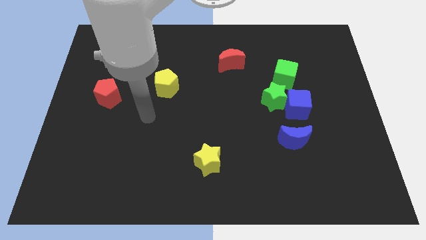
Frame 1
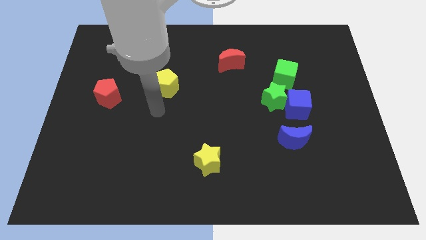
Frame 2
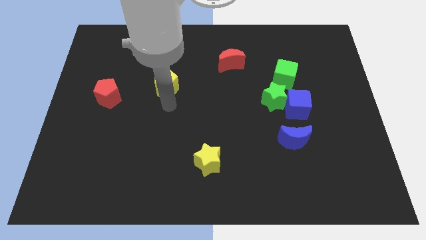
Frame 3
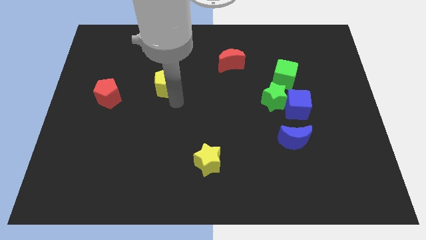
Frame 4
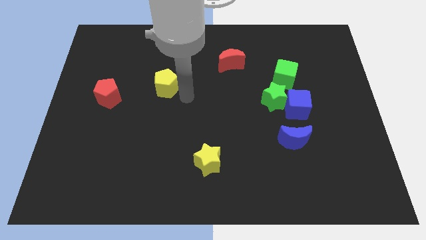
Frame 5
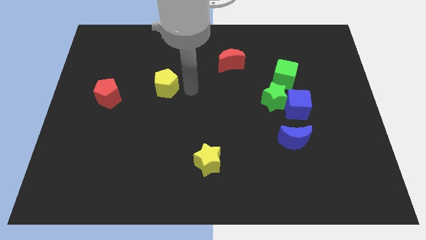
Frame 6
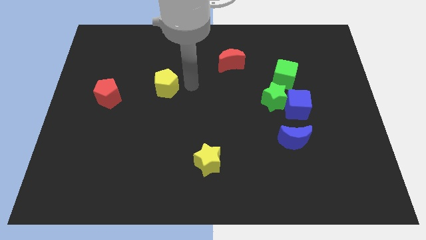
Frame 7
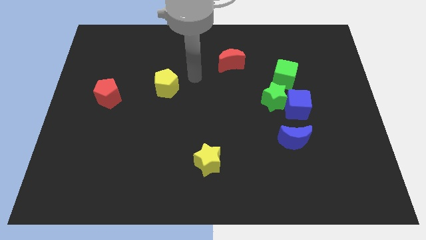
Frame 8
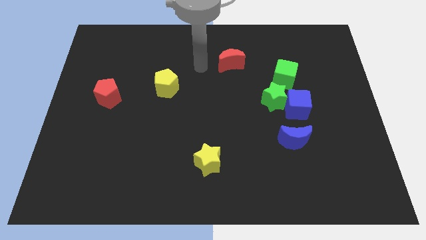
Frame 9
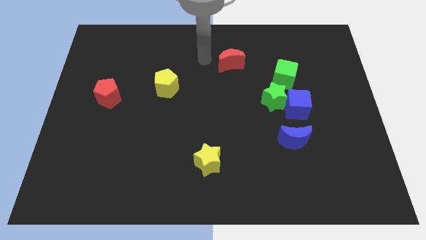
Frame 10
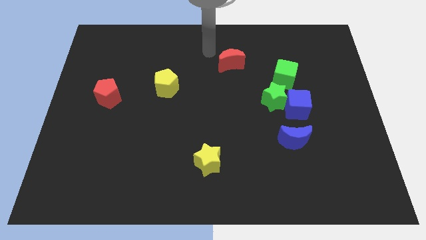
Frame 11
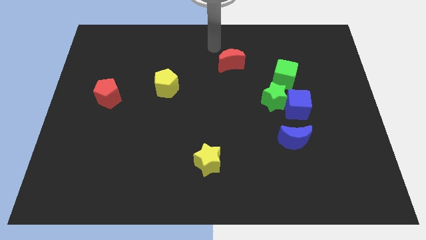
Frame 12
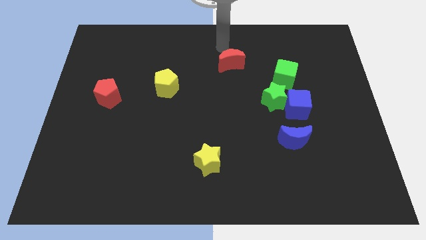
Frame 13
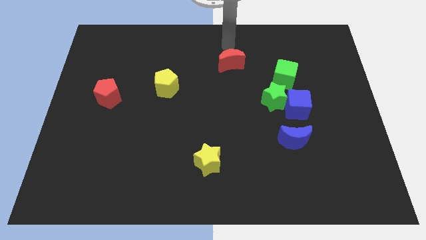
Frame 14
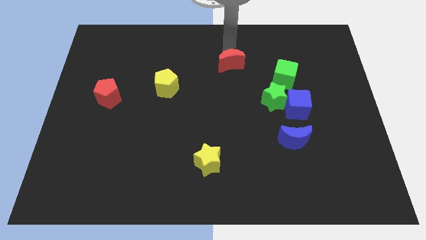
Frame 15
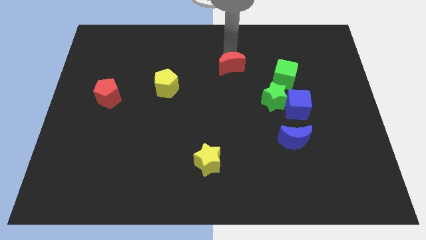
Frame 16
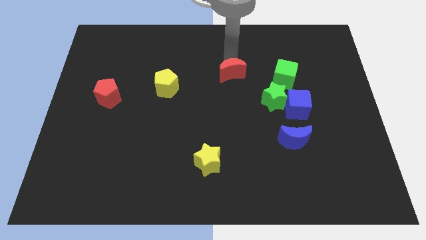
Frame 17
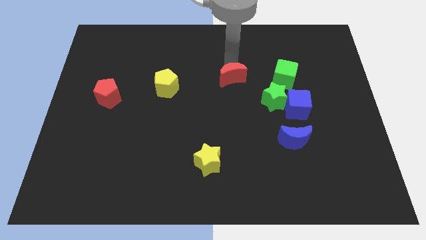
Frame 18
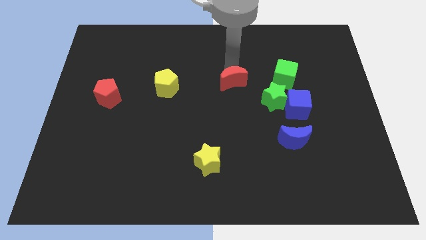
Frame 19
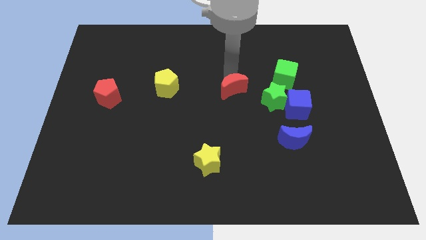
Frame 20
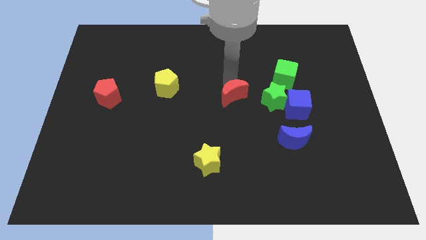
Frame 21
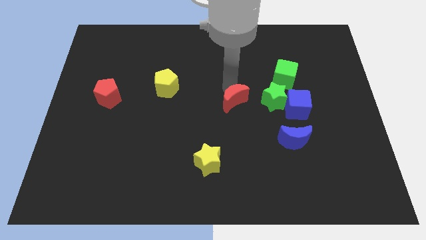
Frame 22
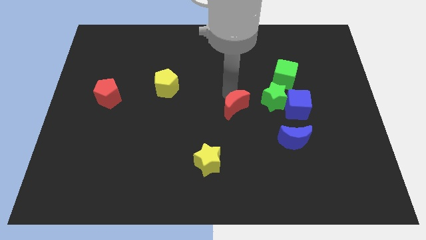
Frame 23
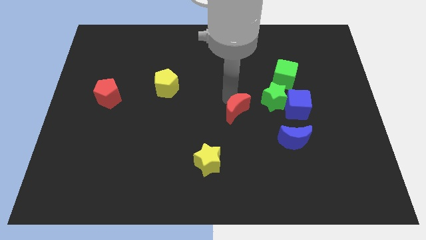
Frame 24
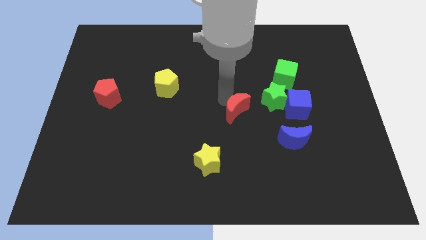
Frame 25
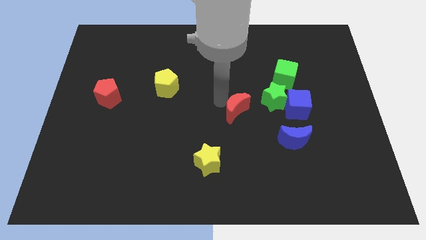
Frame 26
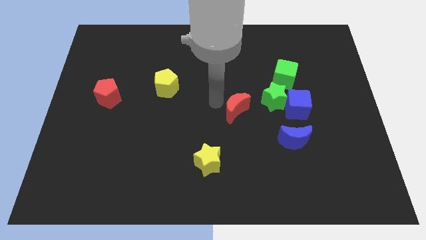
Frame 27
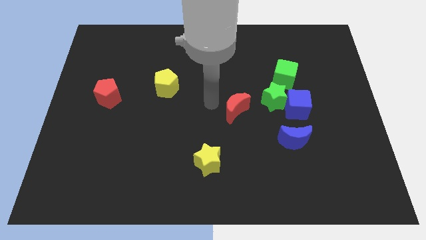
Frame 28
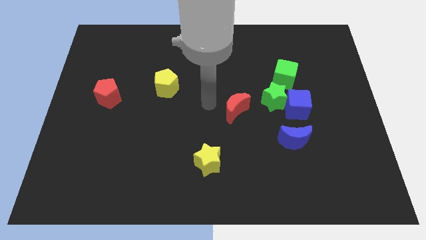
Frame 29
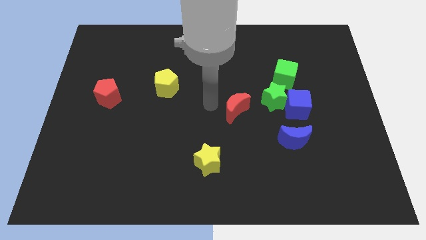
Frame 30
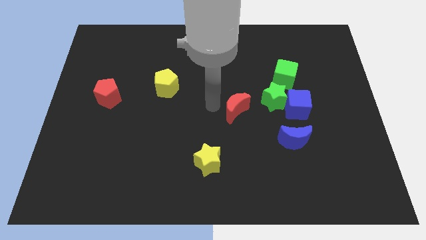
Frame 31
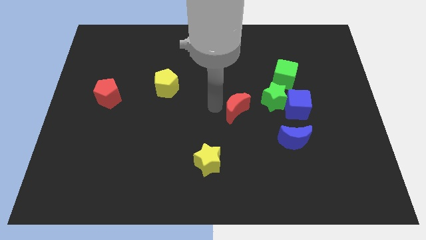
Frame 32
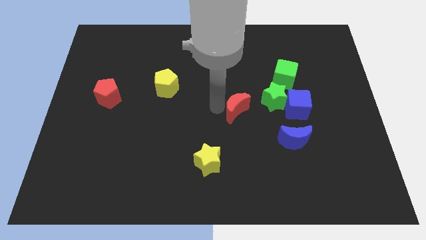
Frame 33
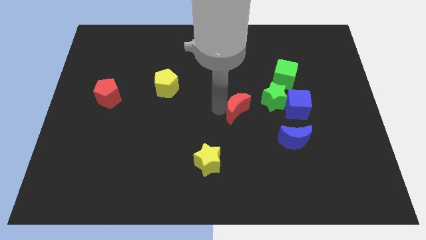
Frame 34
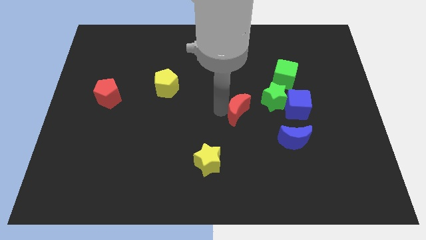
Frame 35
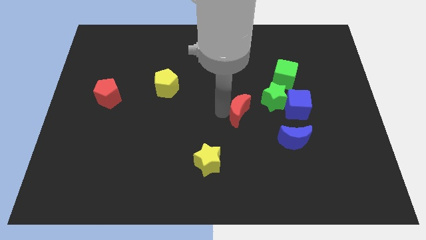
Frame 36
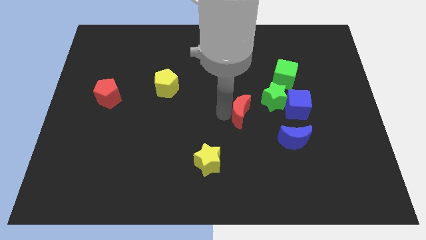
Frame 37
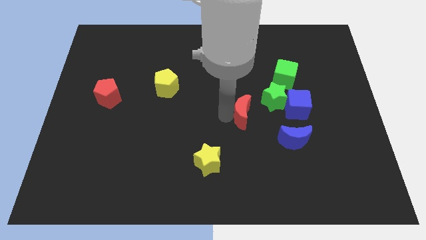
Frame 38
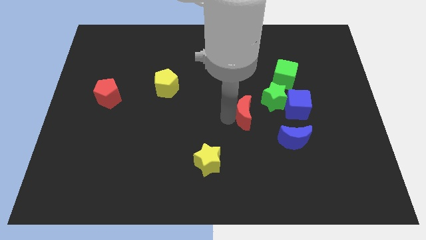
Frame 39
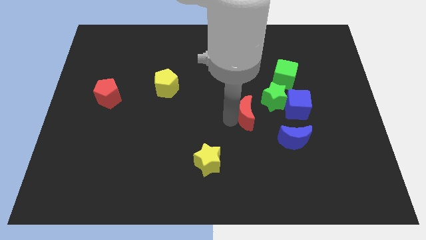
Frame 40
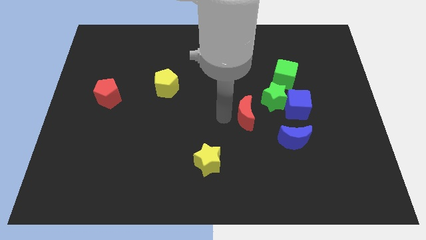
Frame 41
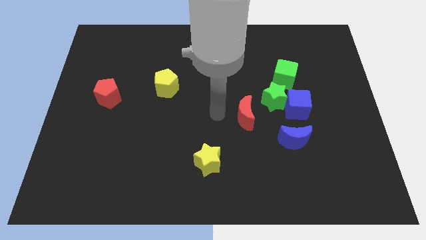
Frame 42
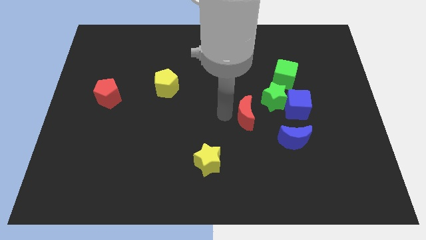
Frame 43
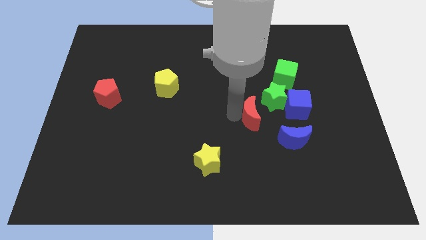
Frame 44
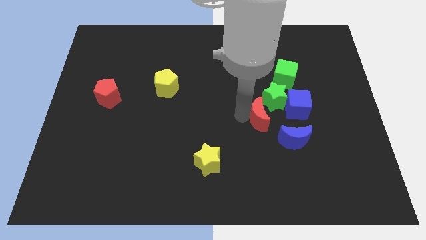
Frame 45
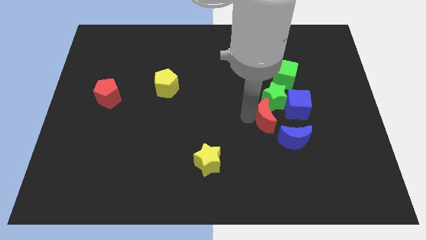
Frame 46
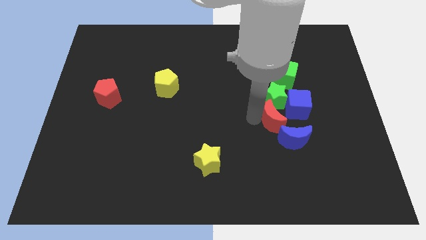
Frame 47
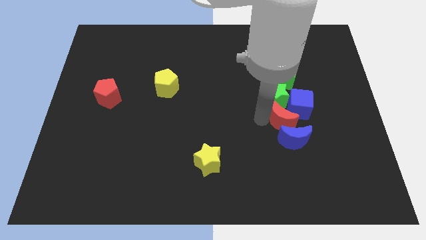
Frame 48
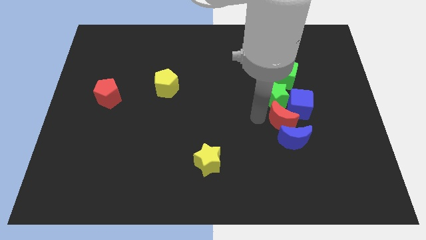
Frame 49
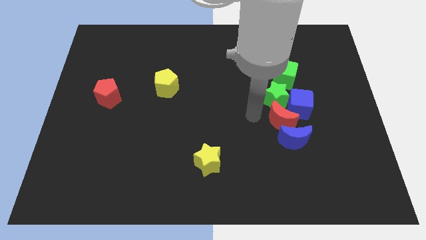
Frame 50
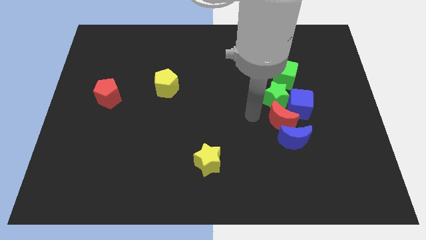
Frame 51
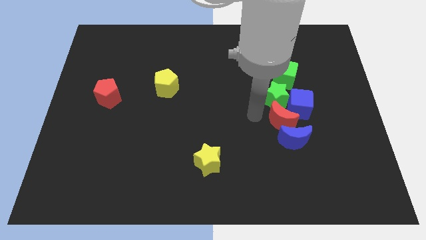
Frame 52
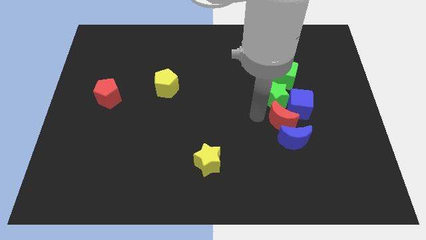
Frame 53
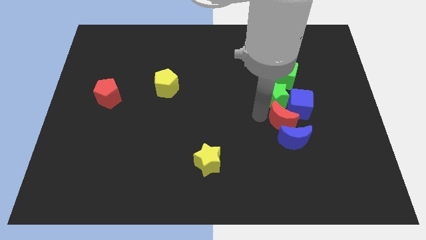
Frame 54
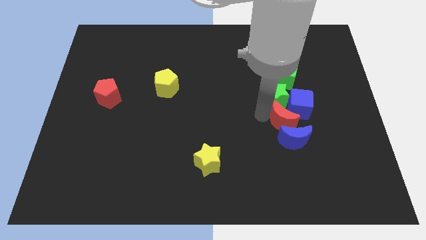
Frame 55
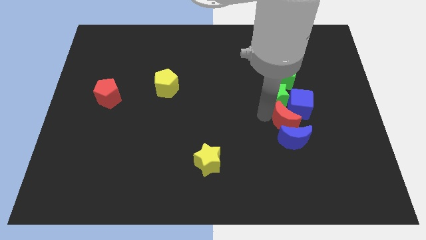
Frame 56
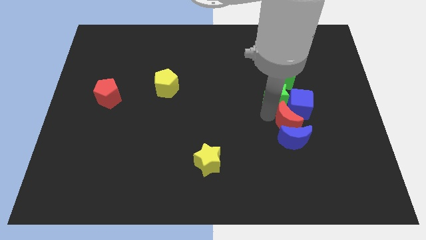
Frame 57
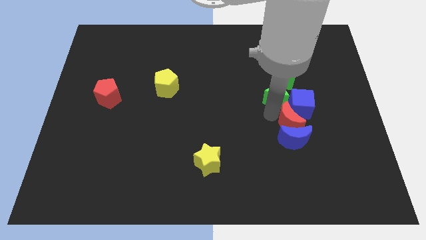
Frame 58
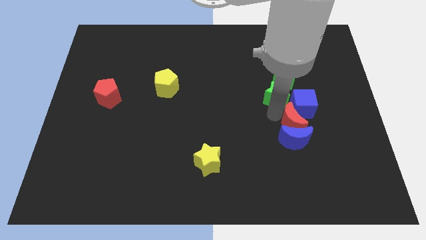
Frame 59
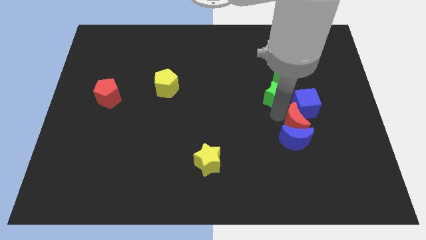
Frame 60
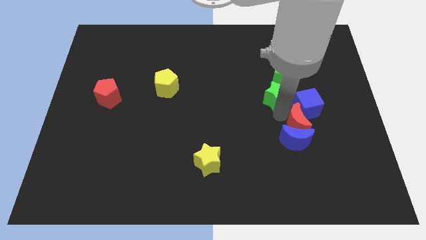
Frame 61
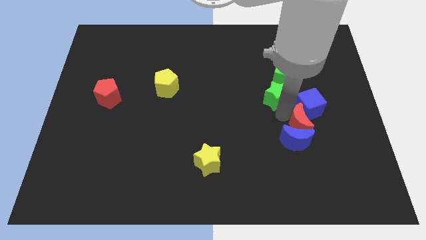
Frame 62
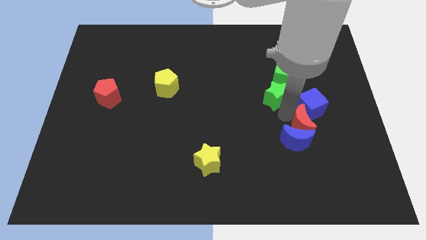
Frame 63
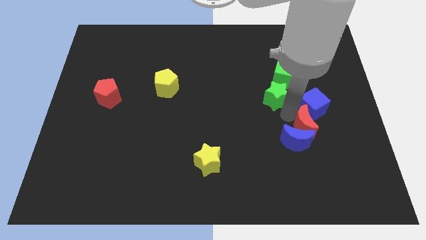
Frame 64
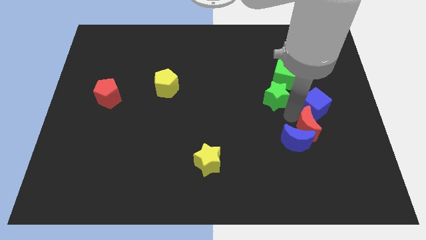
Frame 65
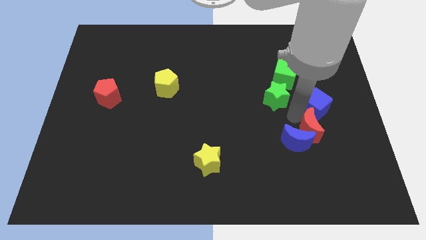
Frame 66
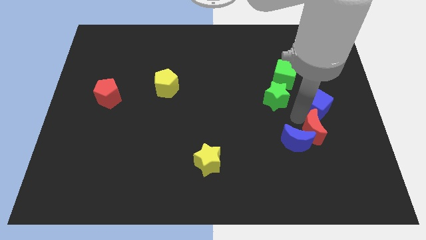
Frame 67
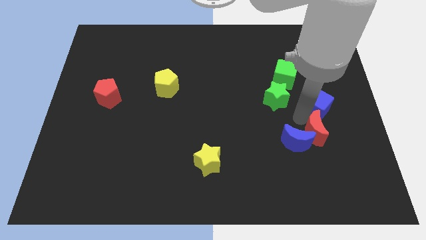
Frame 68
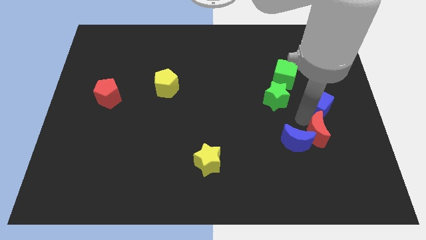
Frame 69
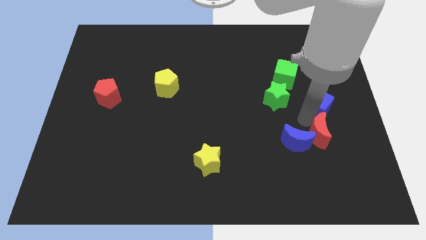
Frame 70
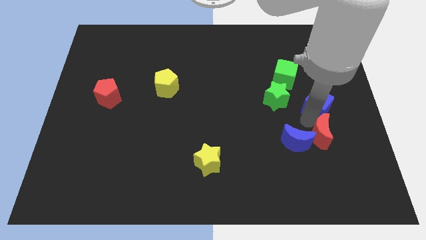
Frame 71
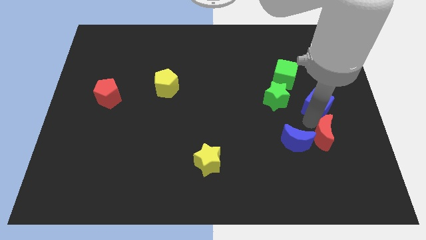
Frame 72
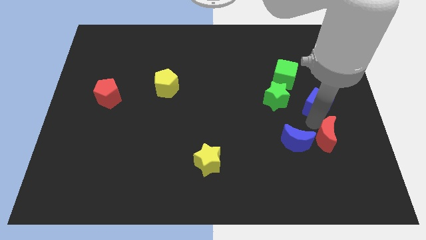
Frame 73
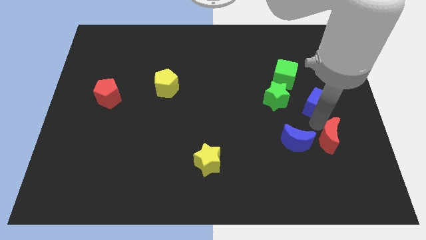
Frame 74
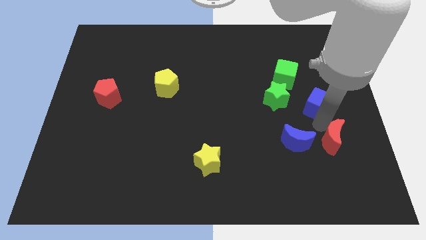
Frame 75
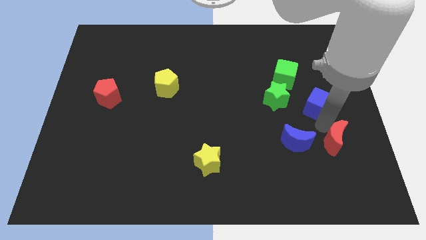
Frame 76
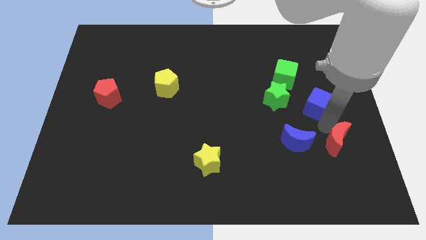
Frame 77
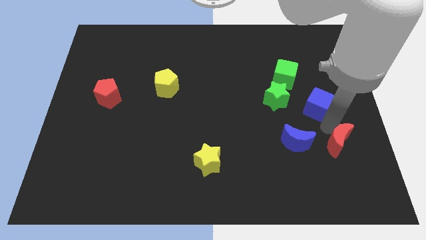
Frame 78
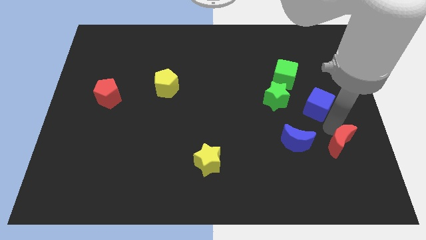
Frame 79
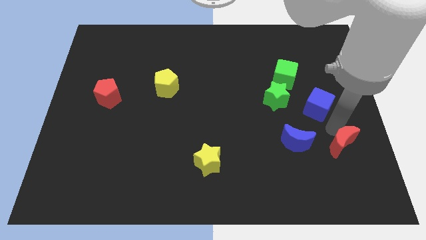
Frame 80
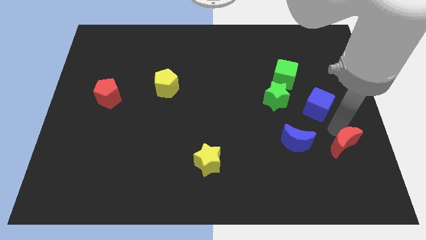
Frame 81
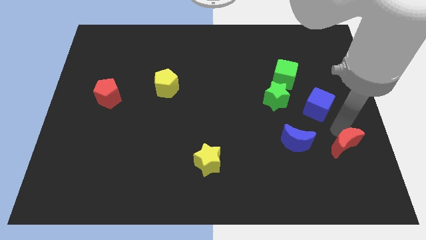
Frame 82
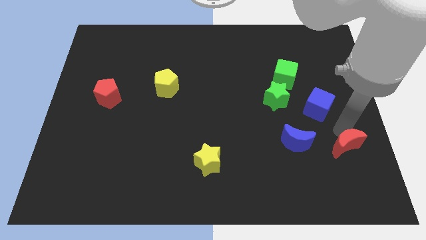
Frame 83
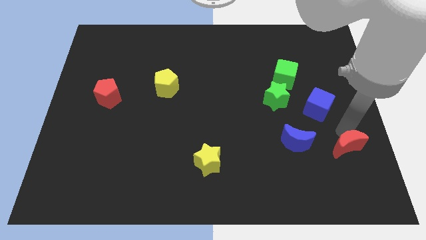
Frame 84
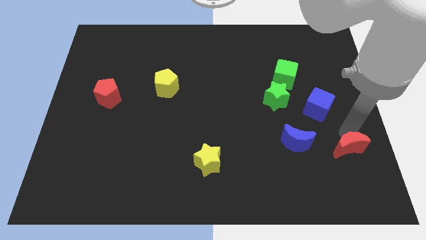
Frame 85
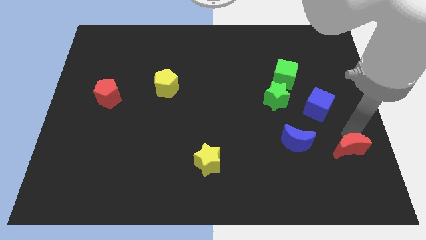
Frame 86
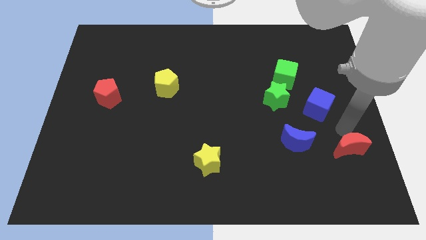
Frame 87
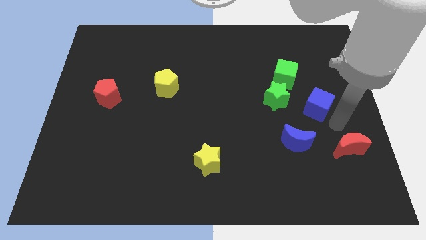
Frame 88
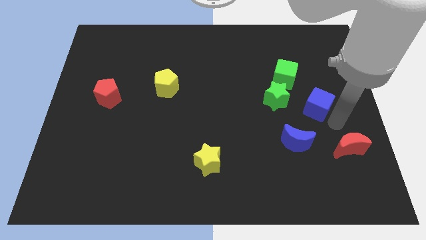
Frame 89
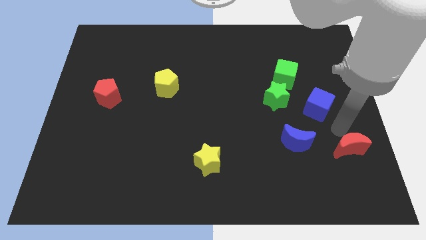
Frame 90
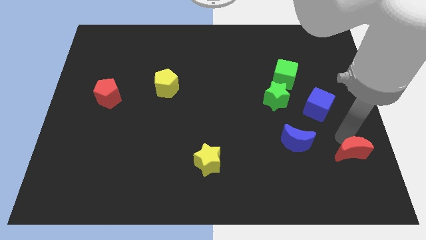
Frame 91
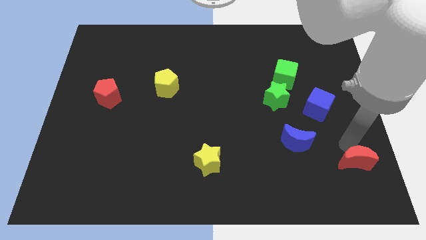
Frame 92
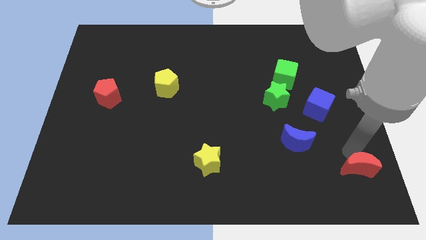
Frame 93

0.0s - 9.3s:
slide the red moon to the bottom right of the board
